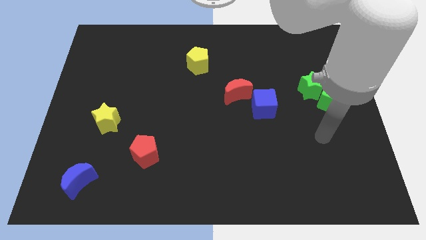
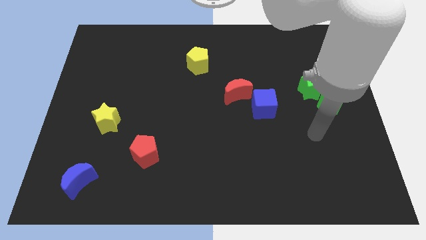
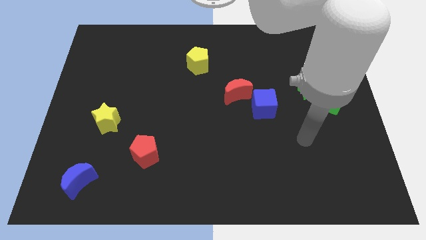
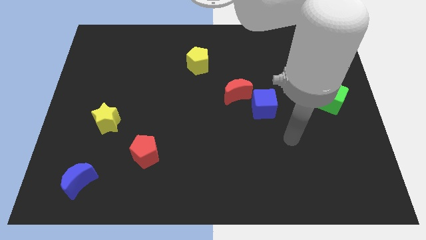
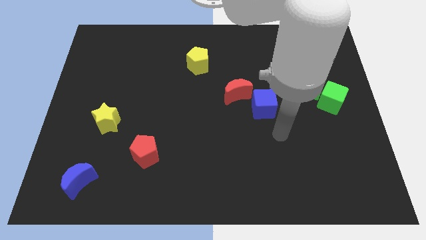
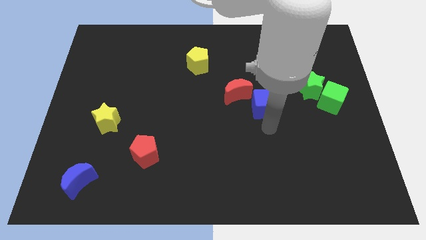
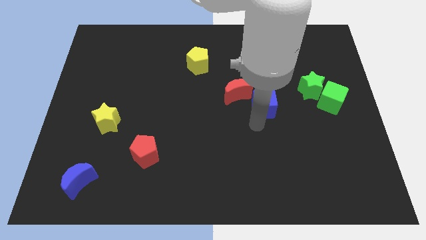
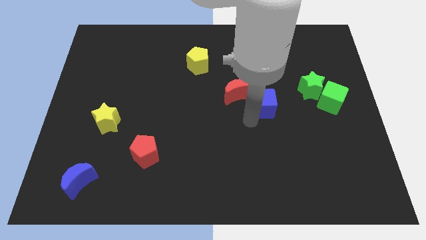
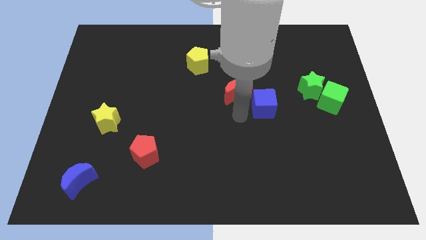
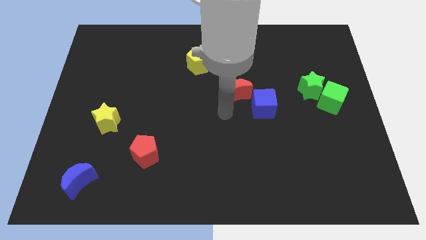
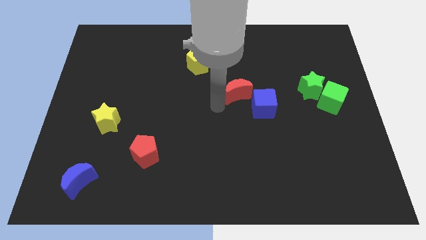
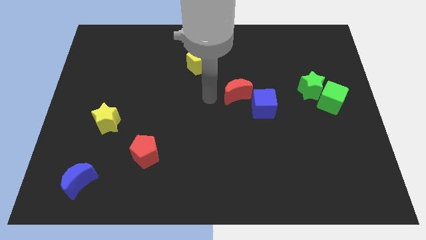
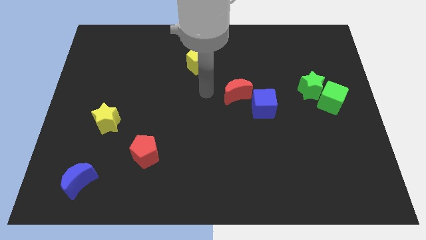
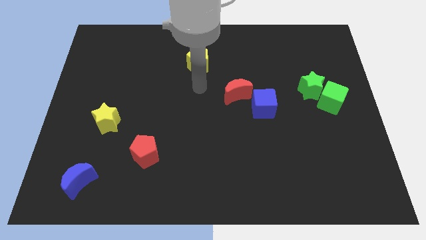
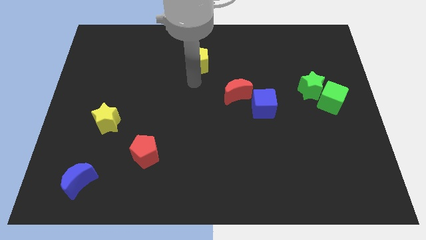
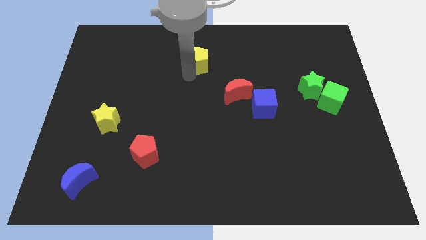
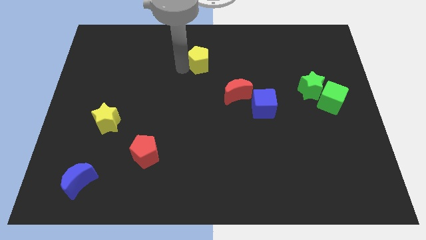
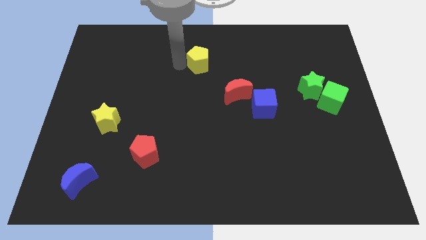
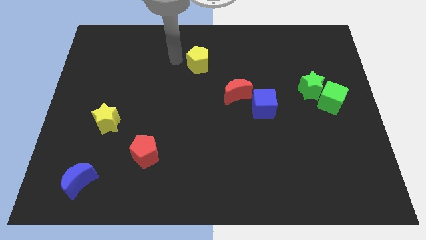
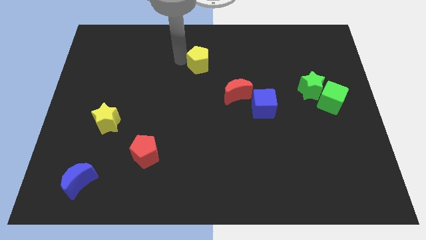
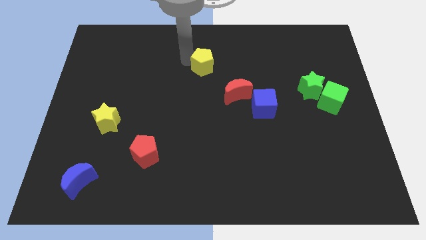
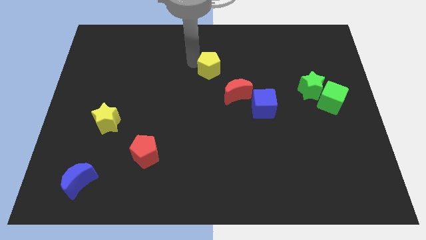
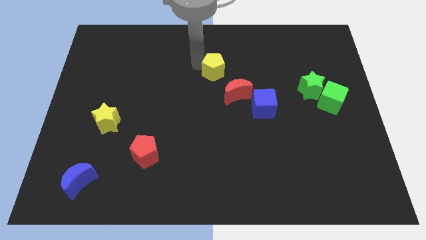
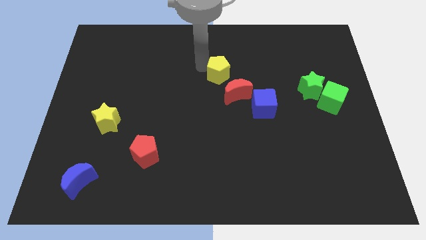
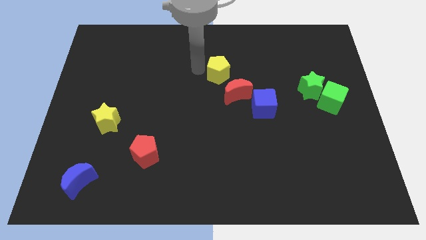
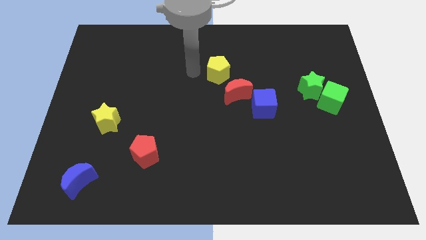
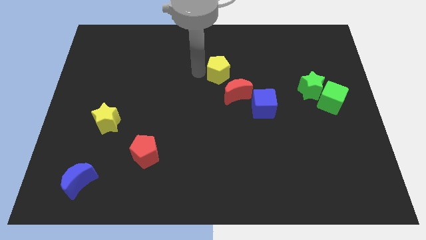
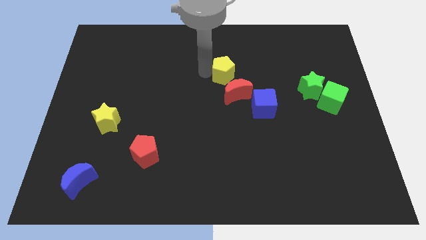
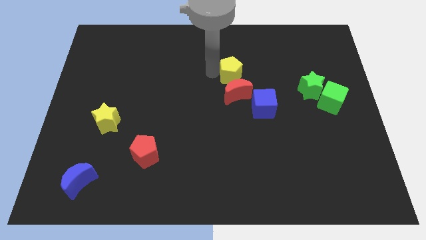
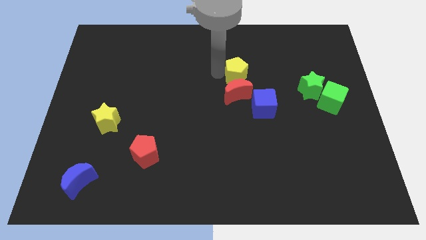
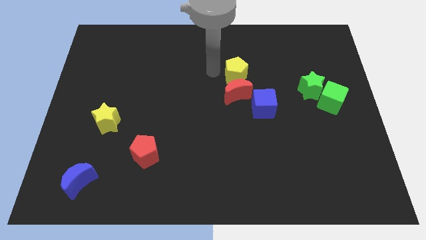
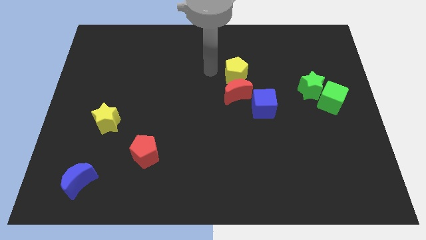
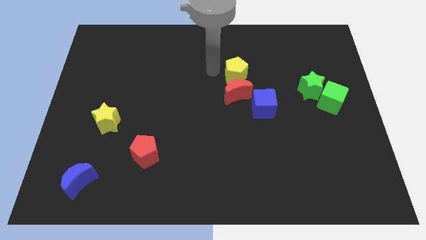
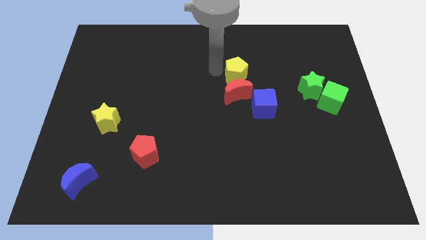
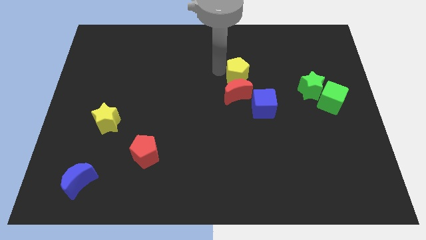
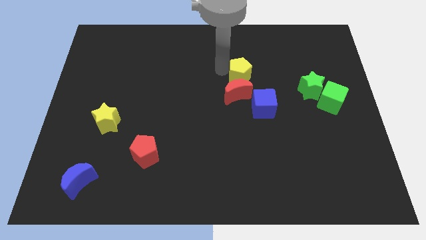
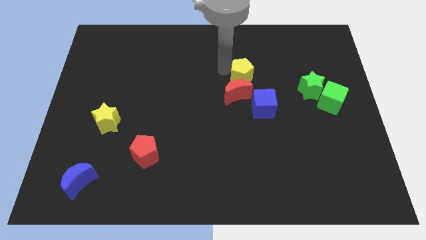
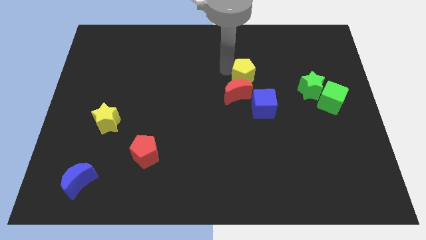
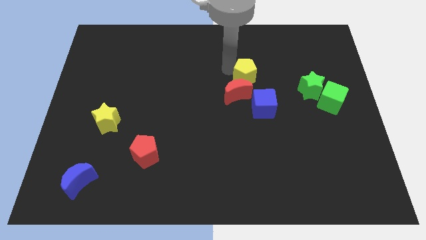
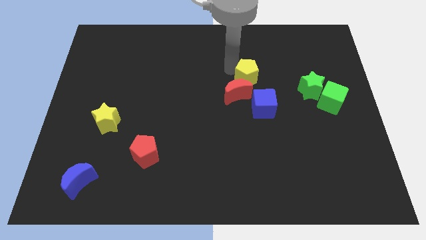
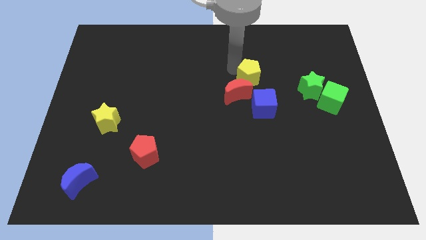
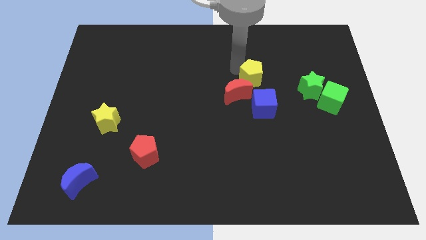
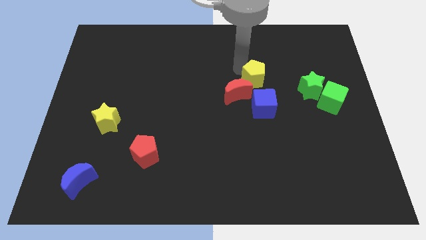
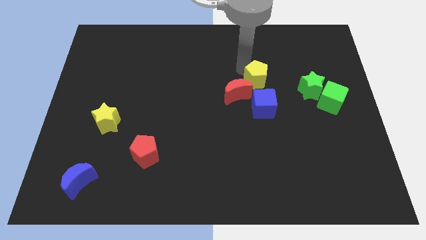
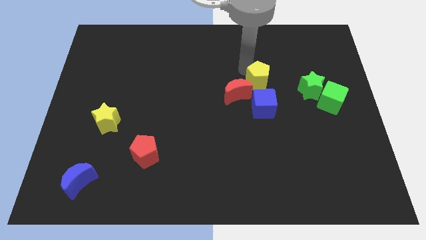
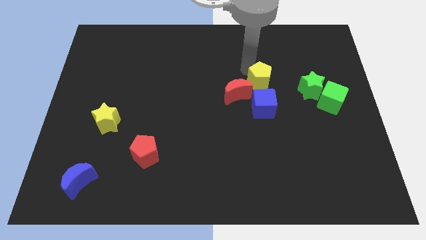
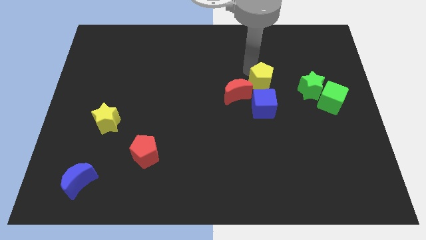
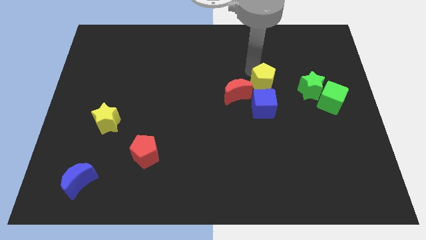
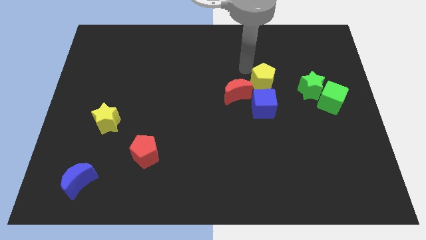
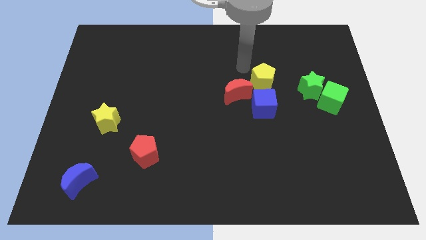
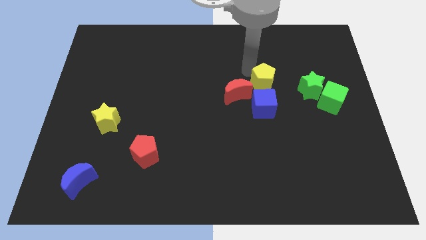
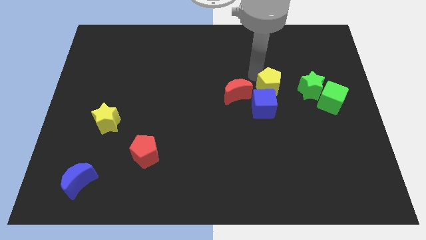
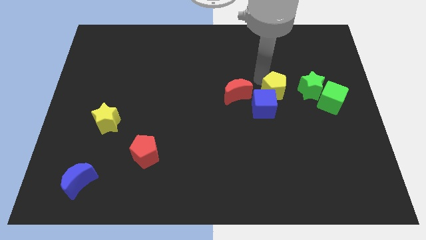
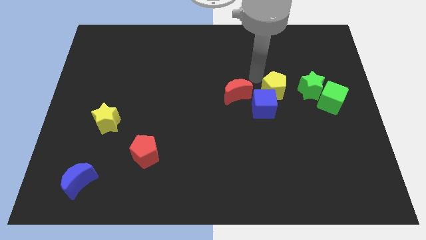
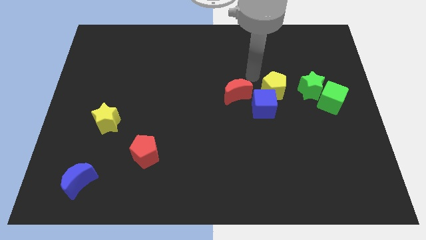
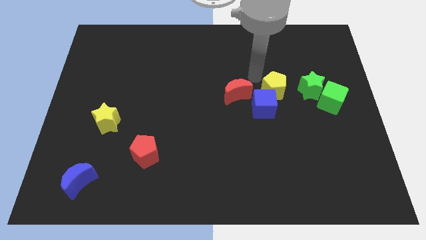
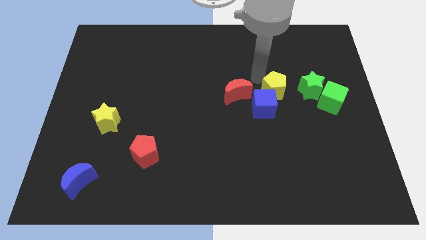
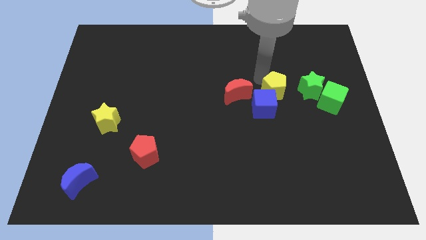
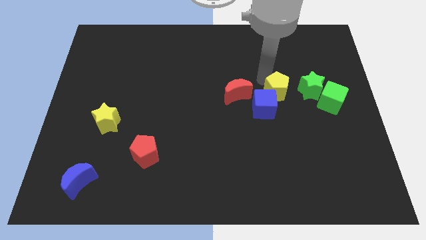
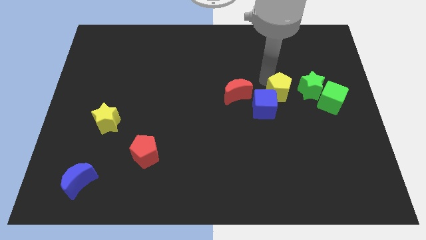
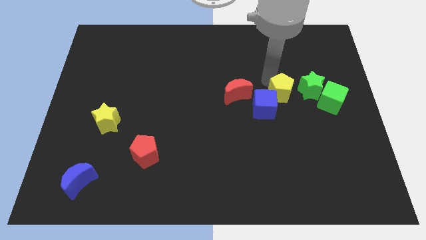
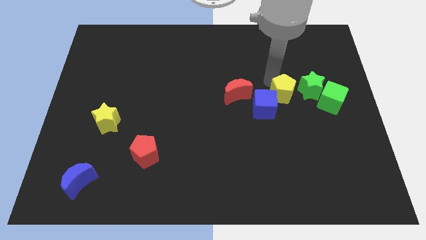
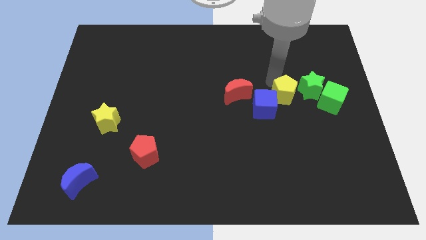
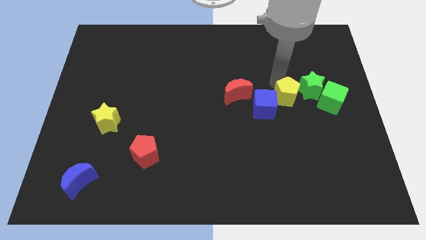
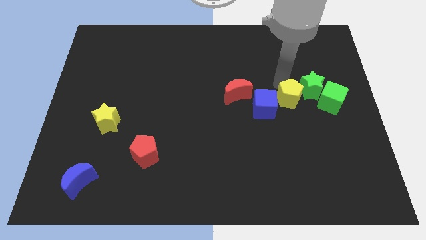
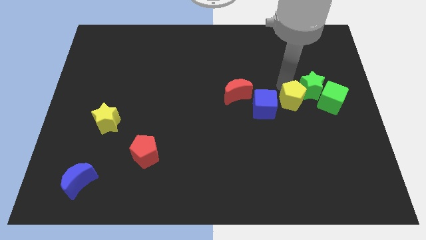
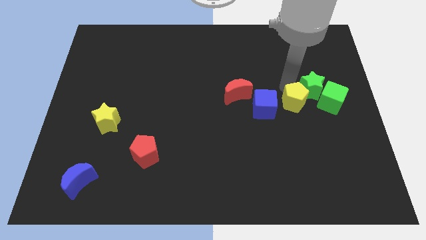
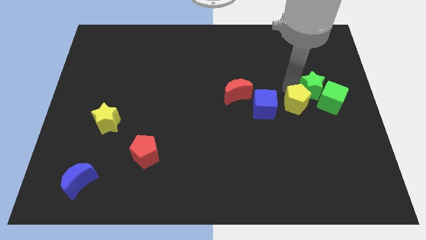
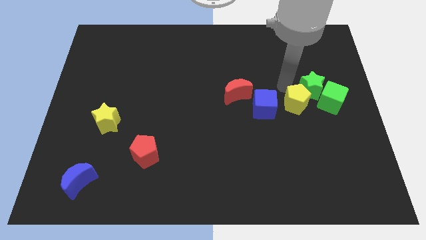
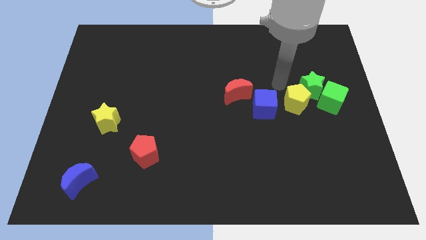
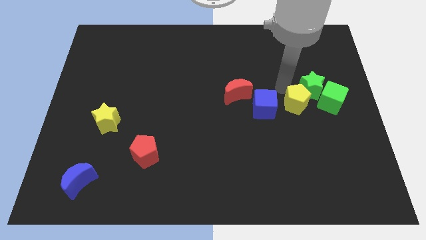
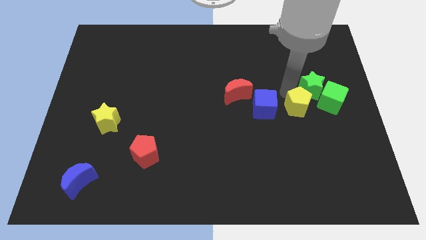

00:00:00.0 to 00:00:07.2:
push the yellow pentagon to the bottom left side of the green cube
